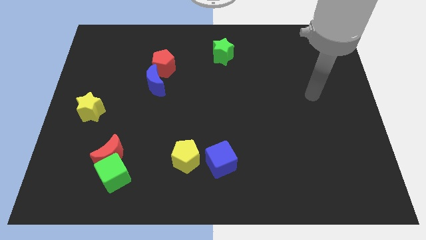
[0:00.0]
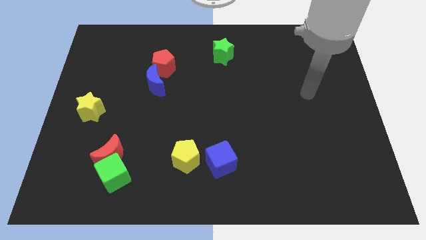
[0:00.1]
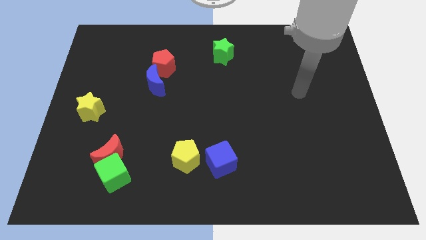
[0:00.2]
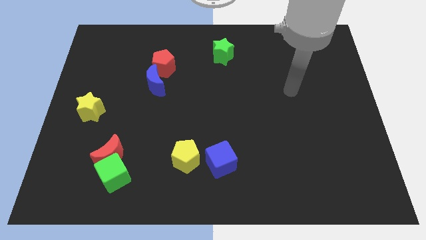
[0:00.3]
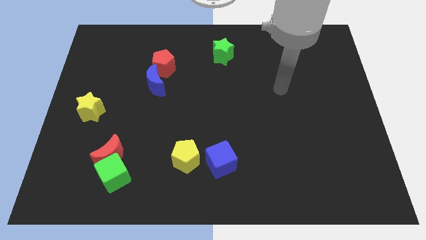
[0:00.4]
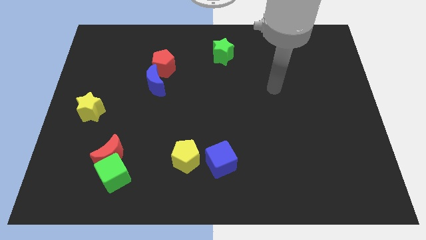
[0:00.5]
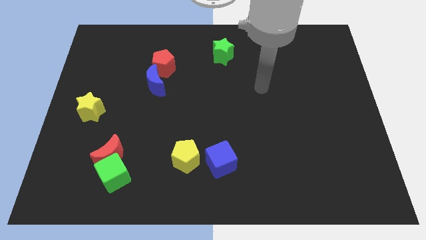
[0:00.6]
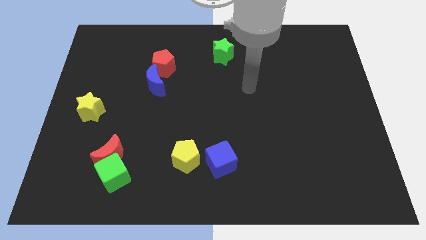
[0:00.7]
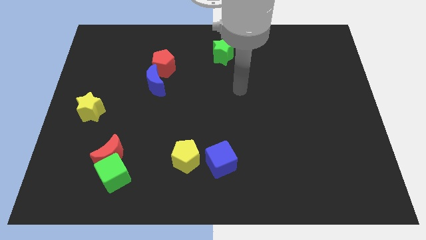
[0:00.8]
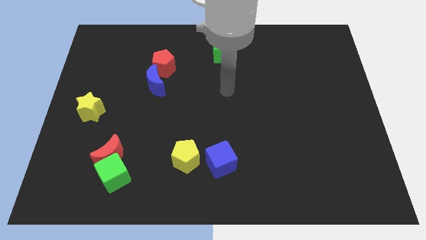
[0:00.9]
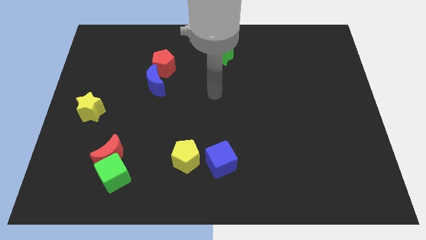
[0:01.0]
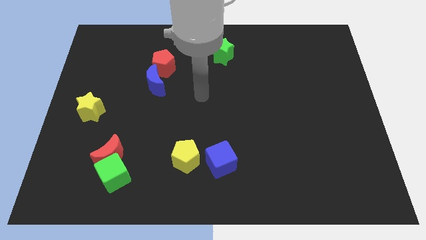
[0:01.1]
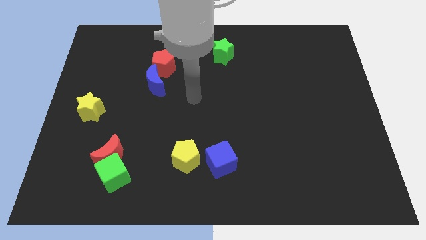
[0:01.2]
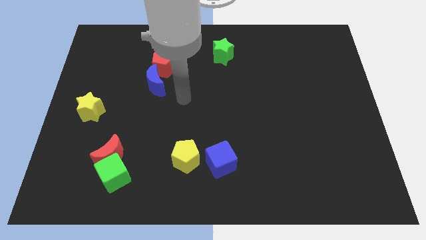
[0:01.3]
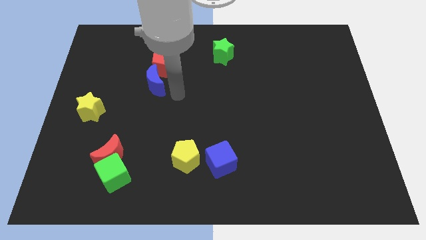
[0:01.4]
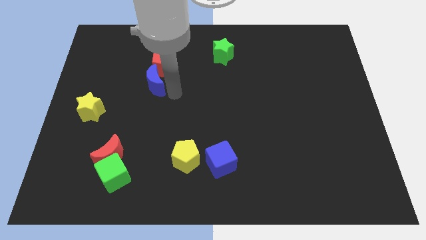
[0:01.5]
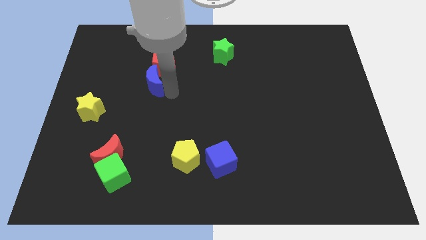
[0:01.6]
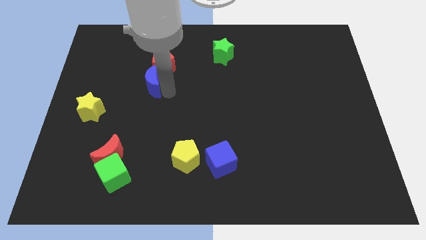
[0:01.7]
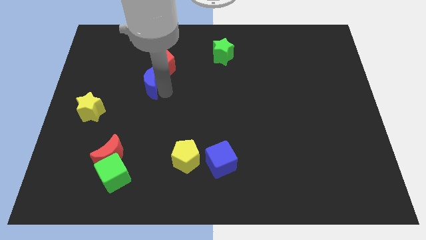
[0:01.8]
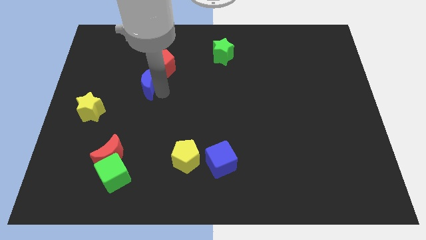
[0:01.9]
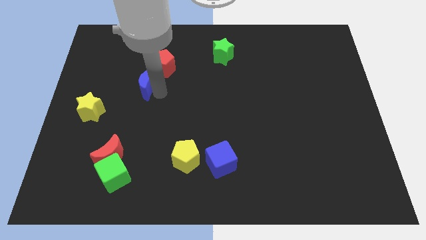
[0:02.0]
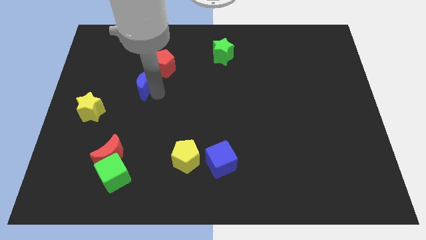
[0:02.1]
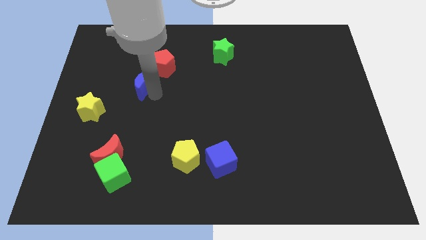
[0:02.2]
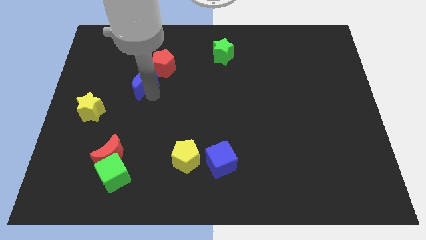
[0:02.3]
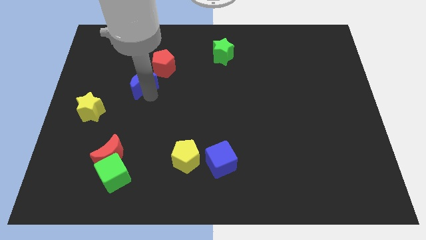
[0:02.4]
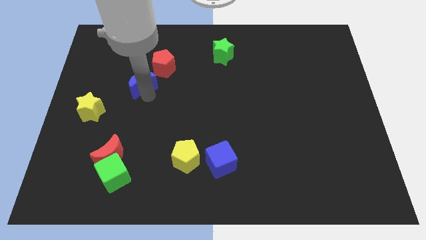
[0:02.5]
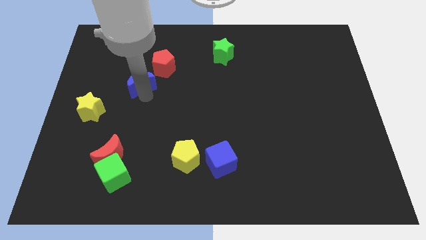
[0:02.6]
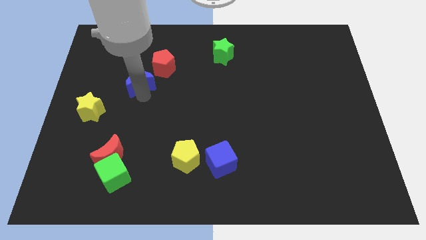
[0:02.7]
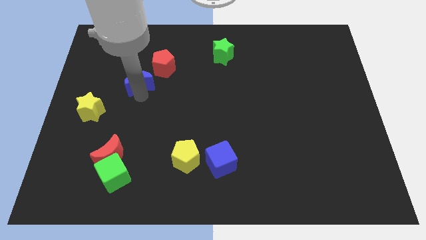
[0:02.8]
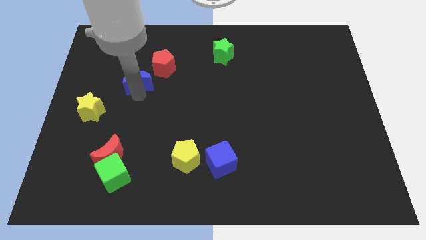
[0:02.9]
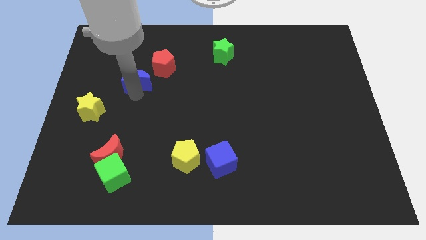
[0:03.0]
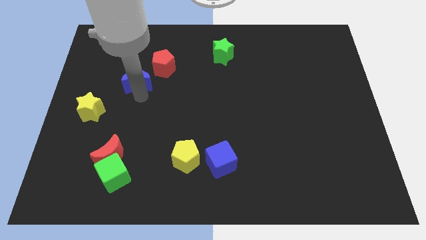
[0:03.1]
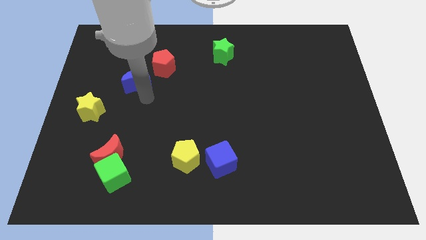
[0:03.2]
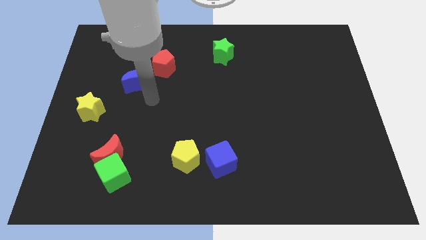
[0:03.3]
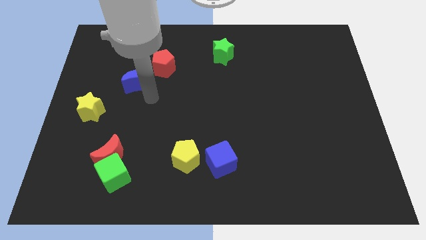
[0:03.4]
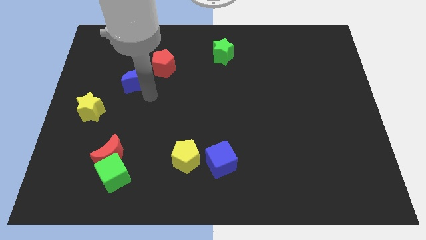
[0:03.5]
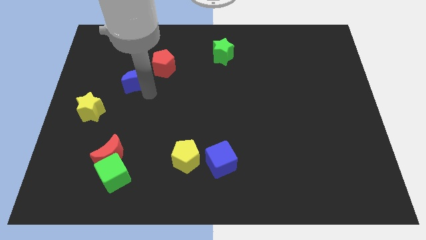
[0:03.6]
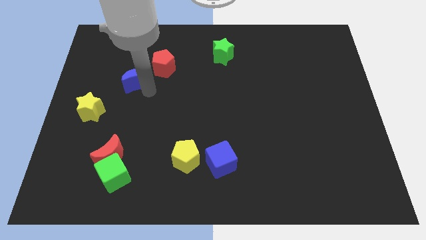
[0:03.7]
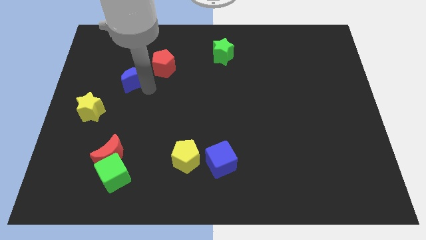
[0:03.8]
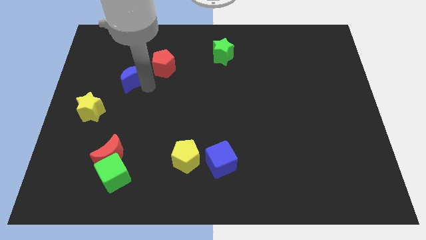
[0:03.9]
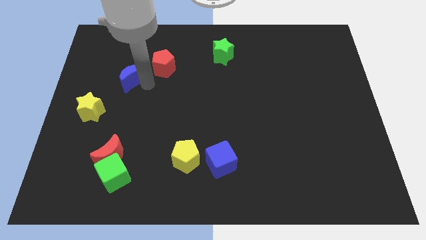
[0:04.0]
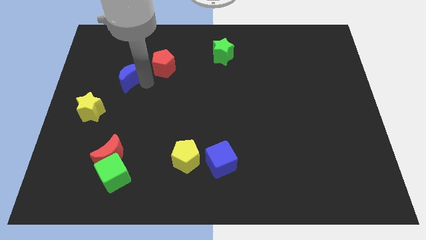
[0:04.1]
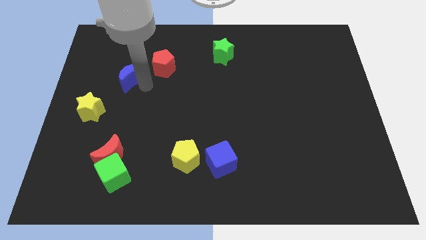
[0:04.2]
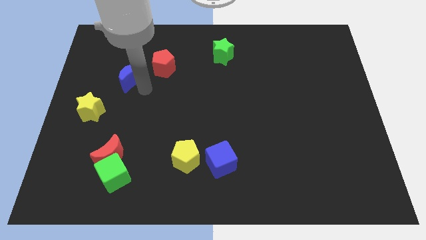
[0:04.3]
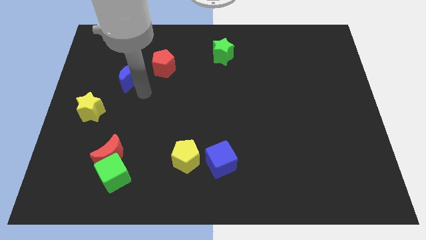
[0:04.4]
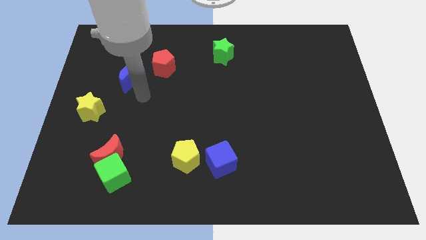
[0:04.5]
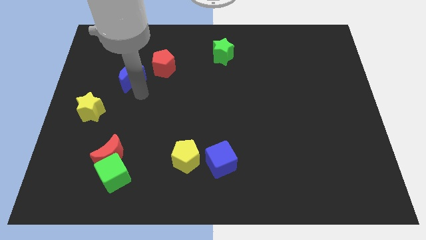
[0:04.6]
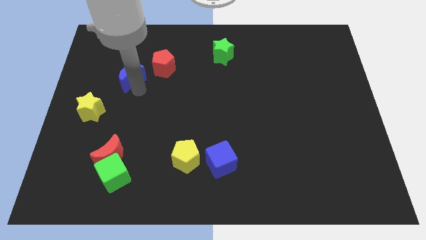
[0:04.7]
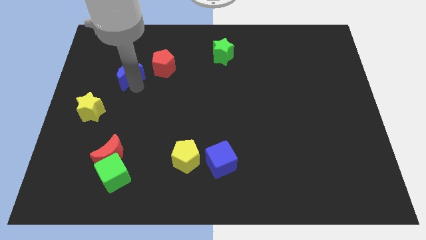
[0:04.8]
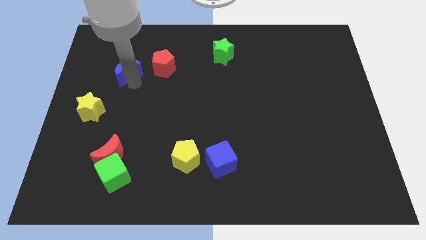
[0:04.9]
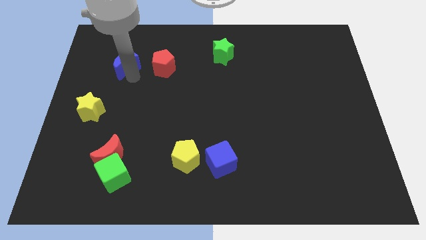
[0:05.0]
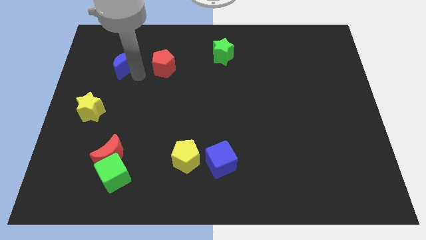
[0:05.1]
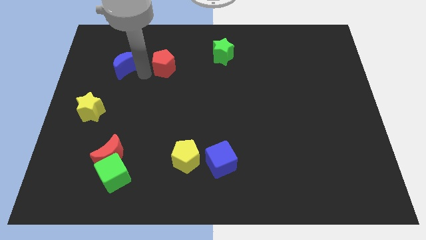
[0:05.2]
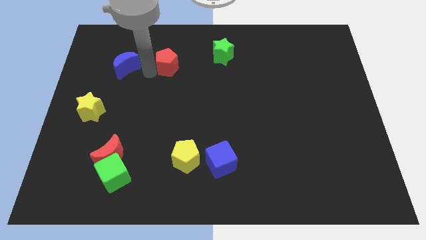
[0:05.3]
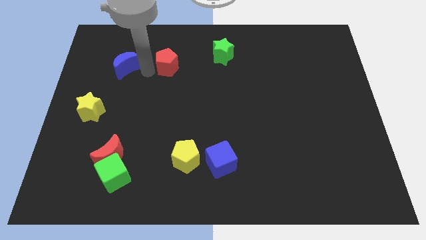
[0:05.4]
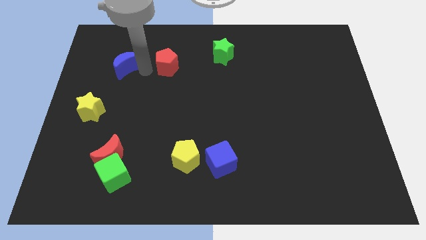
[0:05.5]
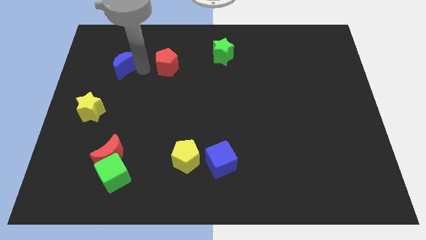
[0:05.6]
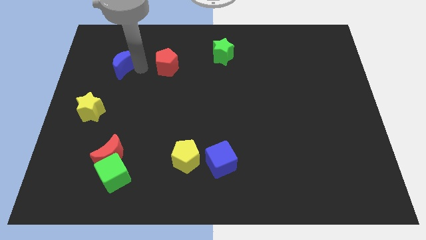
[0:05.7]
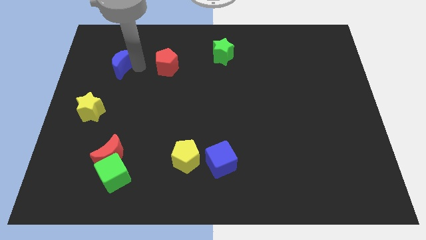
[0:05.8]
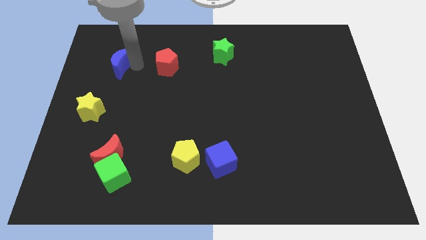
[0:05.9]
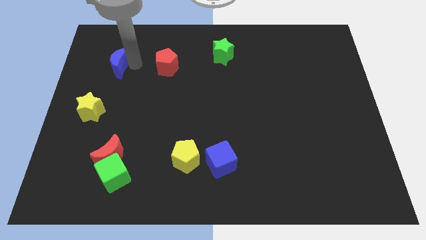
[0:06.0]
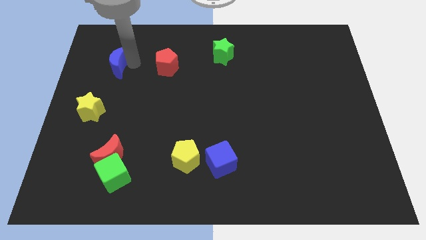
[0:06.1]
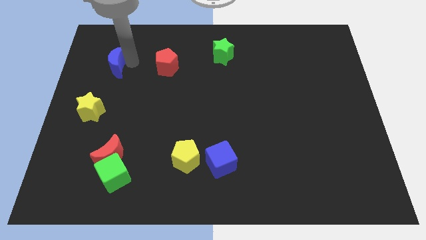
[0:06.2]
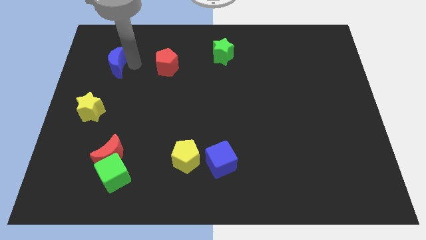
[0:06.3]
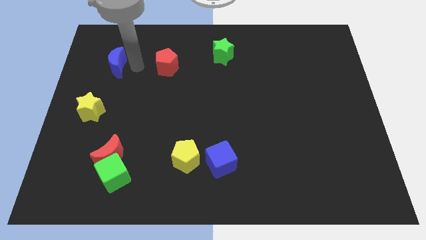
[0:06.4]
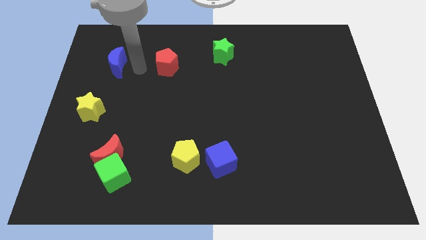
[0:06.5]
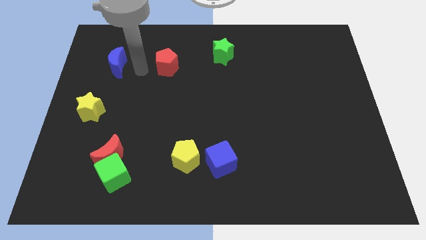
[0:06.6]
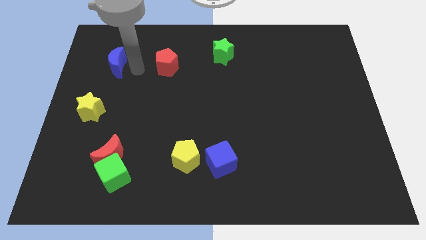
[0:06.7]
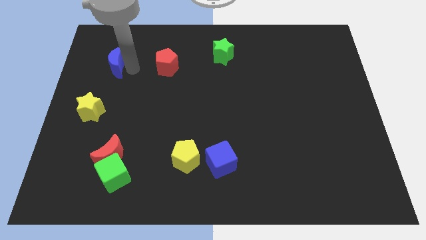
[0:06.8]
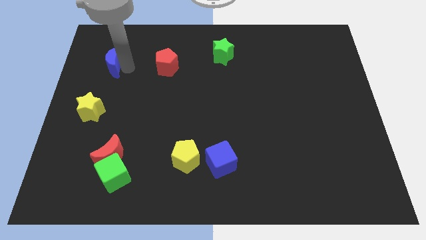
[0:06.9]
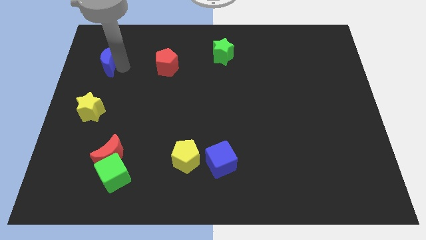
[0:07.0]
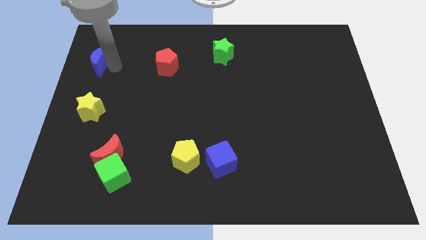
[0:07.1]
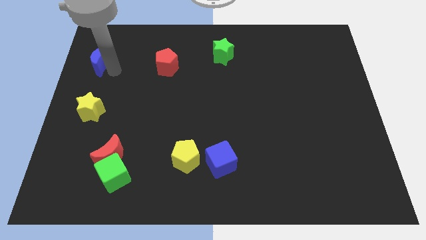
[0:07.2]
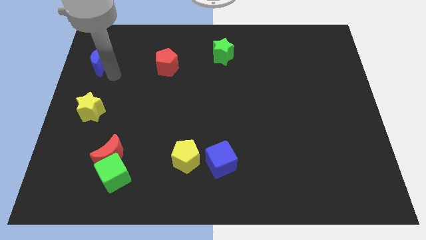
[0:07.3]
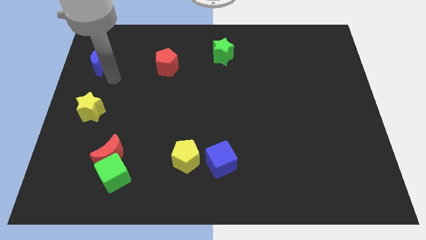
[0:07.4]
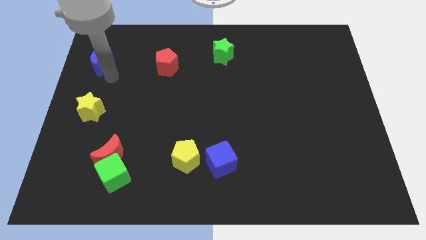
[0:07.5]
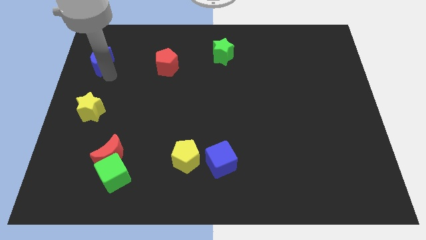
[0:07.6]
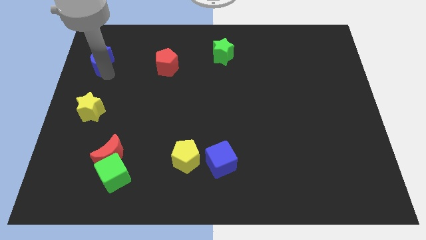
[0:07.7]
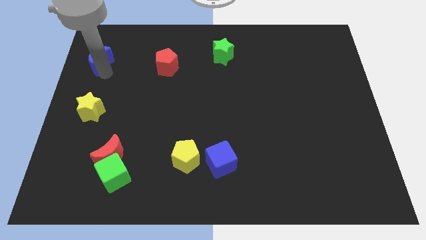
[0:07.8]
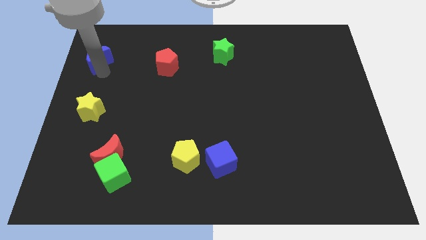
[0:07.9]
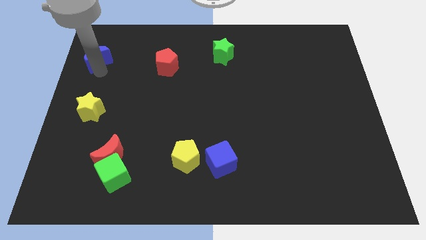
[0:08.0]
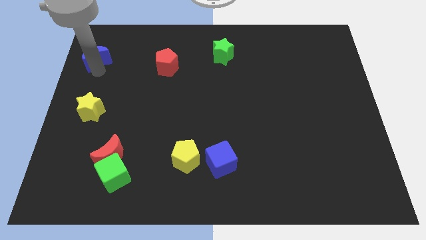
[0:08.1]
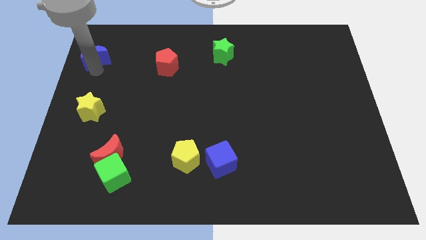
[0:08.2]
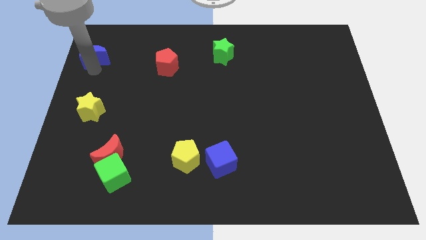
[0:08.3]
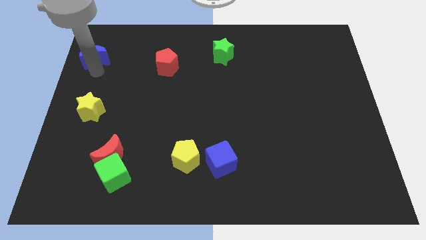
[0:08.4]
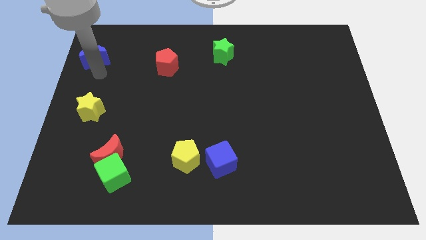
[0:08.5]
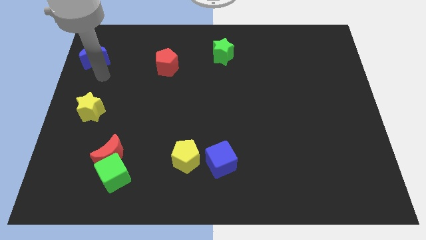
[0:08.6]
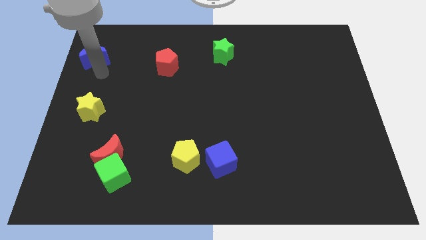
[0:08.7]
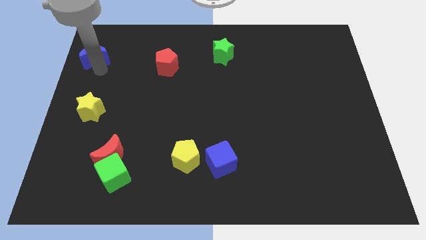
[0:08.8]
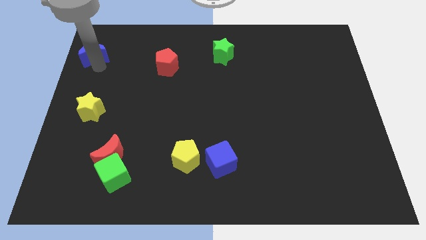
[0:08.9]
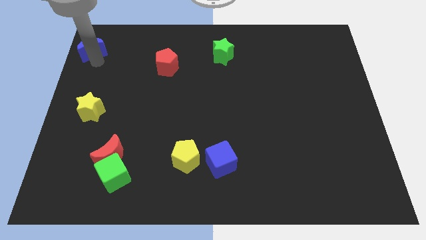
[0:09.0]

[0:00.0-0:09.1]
move the blue moon to the top left of the board
